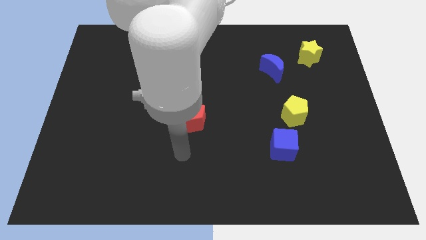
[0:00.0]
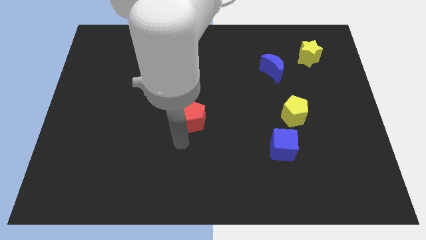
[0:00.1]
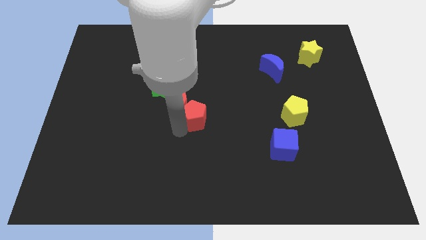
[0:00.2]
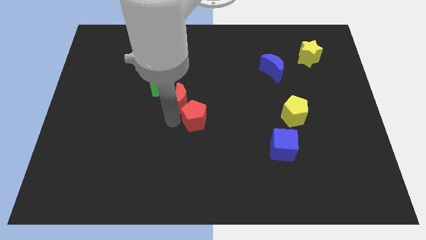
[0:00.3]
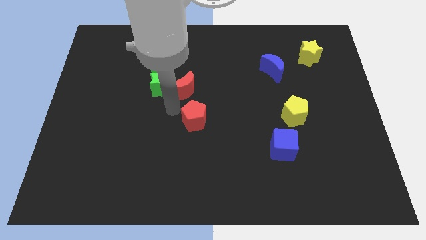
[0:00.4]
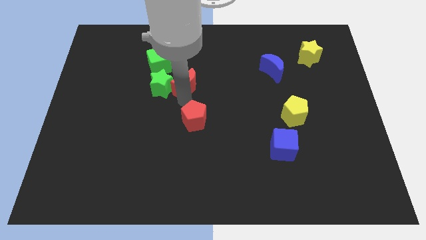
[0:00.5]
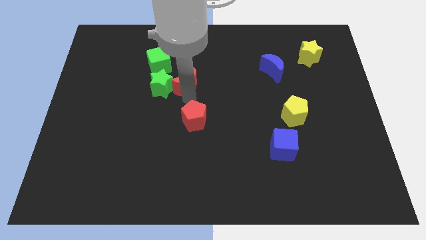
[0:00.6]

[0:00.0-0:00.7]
separate the red pentagon from the red moon

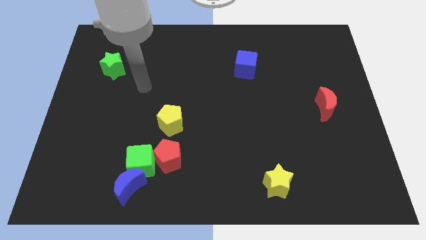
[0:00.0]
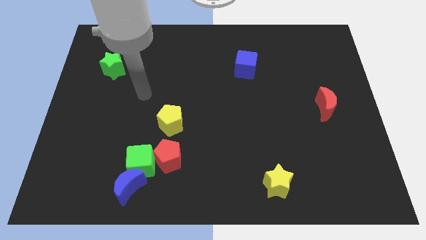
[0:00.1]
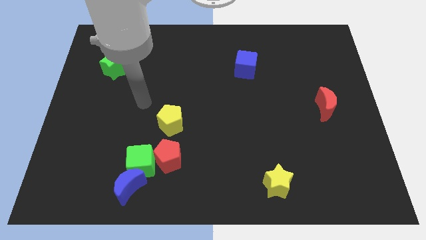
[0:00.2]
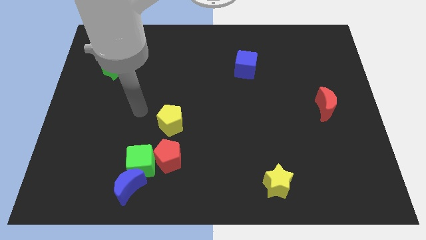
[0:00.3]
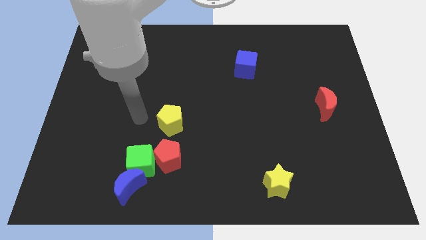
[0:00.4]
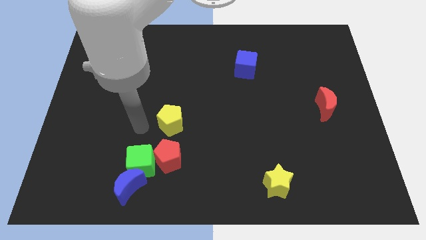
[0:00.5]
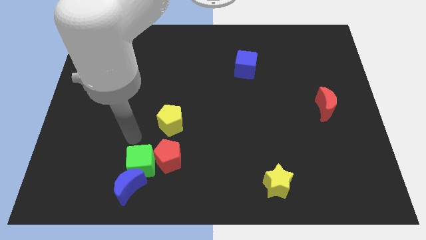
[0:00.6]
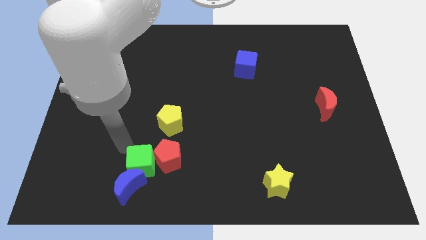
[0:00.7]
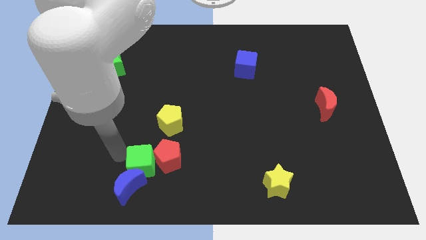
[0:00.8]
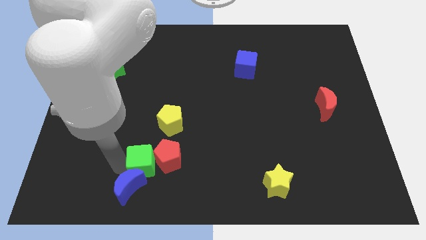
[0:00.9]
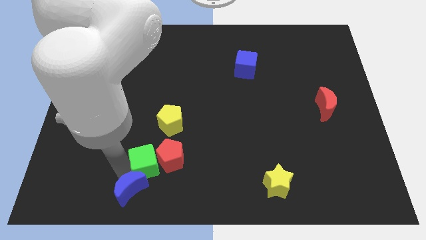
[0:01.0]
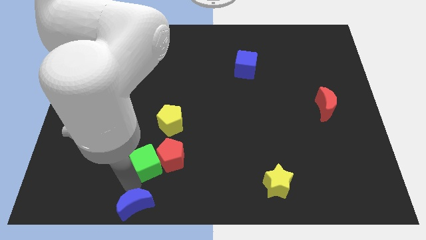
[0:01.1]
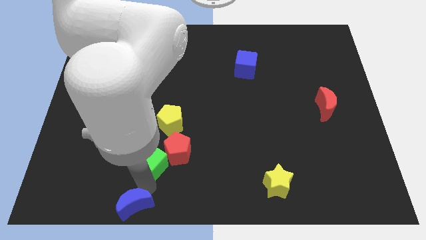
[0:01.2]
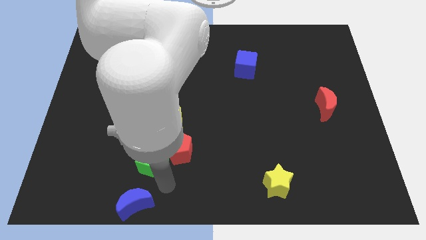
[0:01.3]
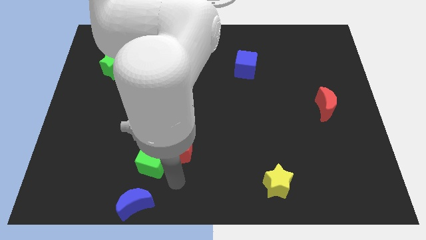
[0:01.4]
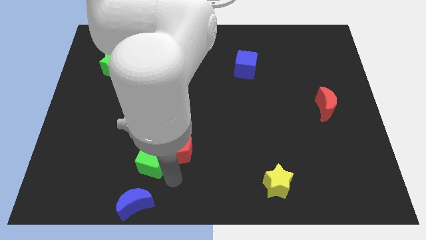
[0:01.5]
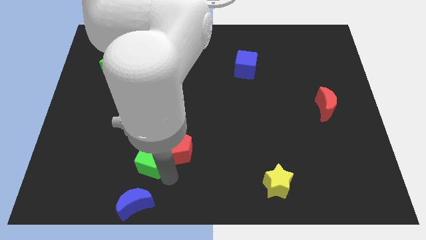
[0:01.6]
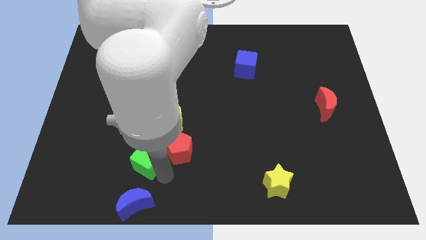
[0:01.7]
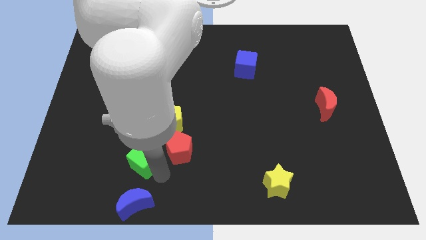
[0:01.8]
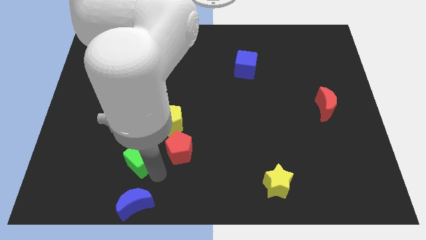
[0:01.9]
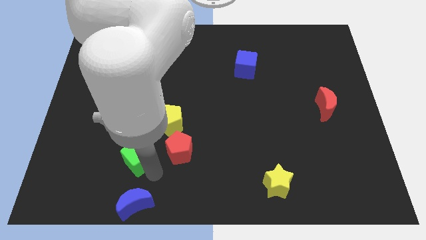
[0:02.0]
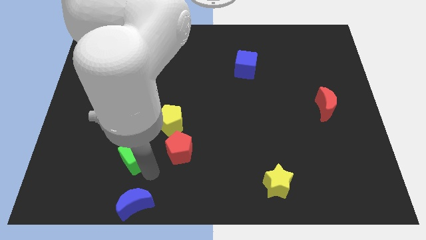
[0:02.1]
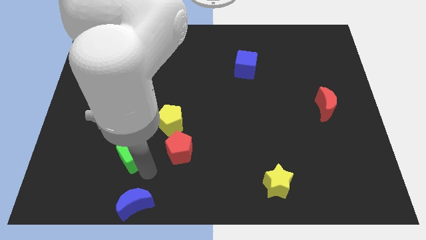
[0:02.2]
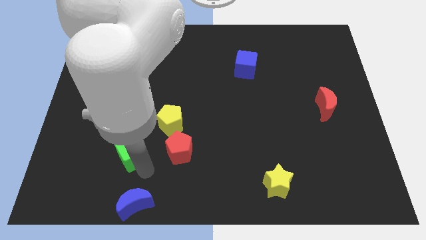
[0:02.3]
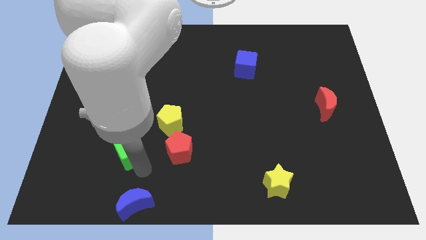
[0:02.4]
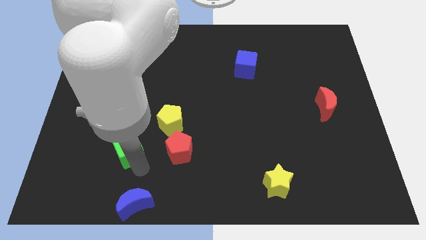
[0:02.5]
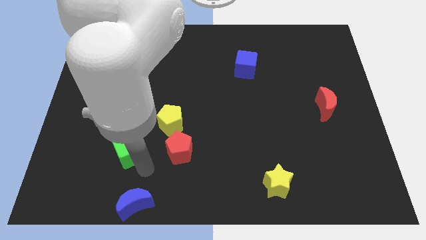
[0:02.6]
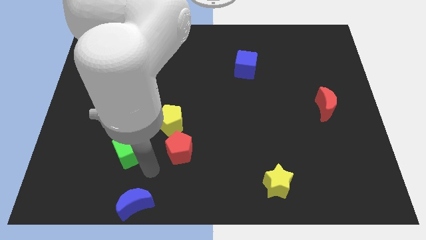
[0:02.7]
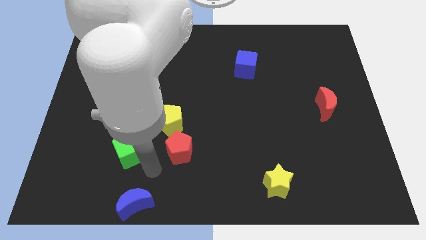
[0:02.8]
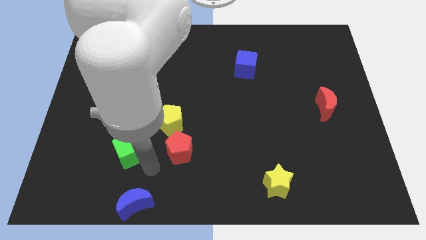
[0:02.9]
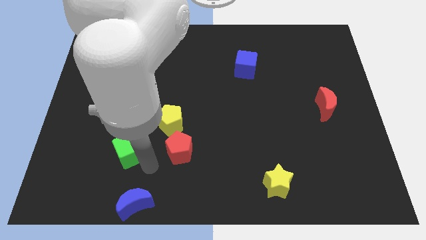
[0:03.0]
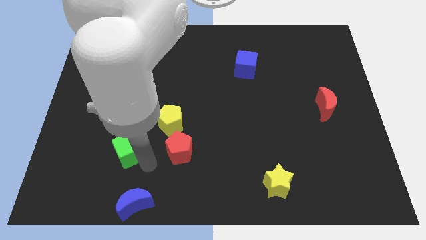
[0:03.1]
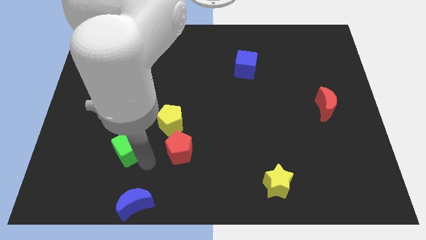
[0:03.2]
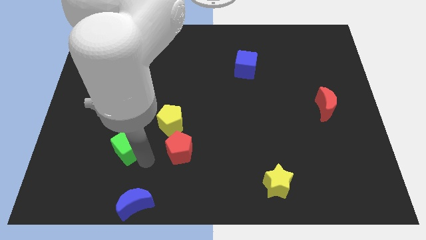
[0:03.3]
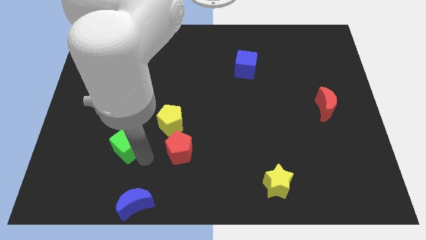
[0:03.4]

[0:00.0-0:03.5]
move the green cube away from the blue moon and red pentagon

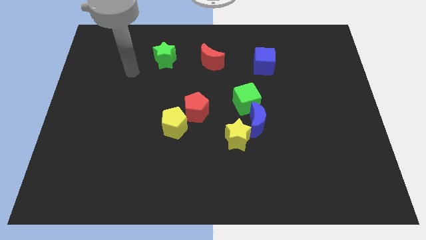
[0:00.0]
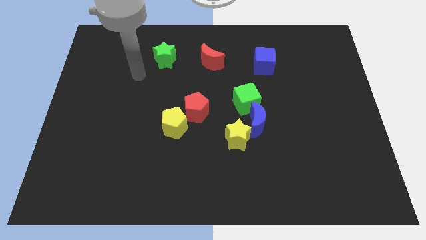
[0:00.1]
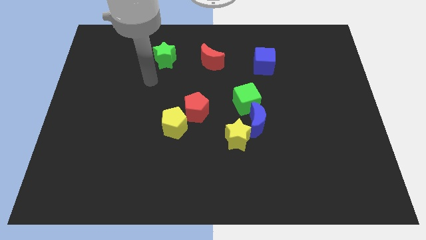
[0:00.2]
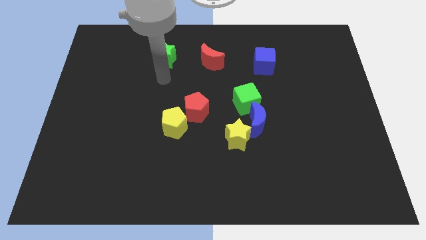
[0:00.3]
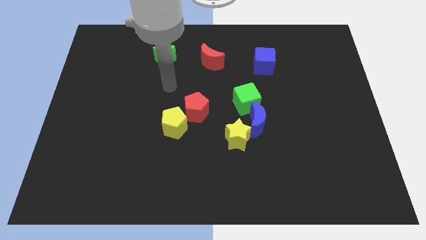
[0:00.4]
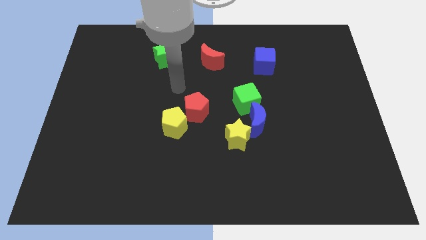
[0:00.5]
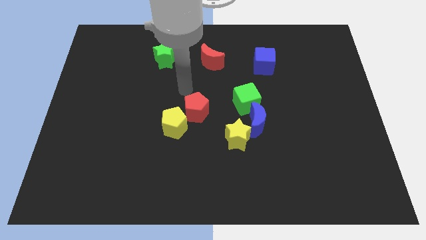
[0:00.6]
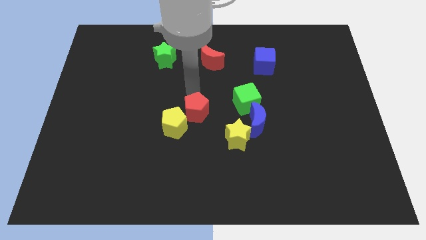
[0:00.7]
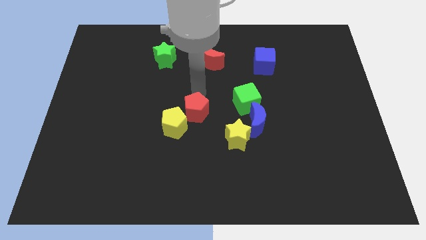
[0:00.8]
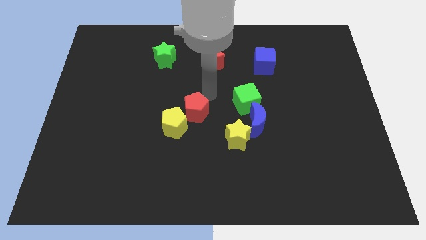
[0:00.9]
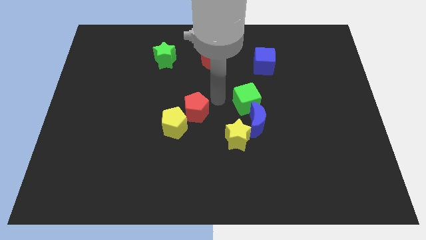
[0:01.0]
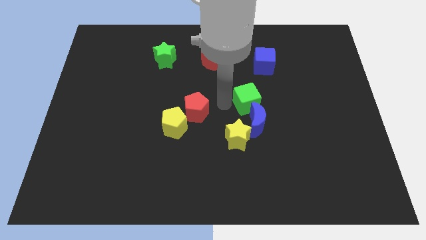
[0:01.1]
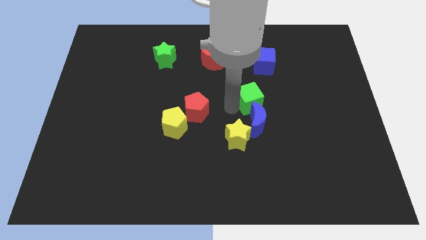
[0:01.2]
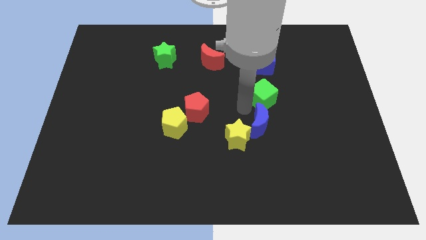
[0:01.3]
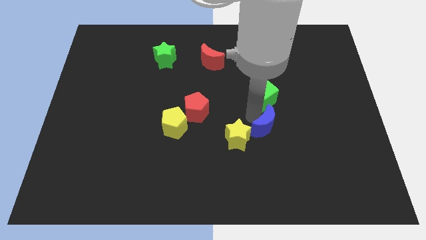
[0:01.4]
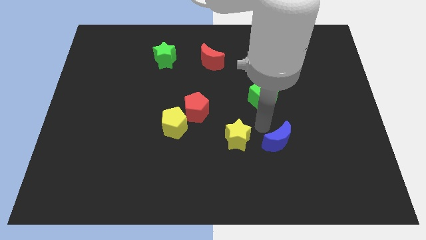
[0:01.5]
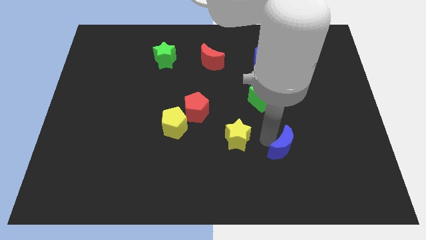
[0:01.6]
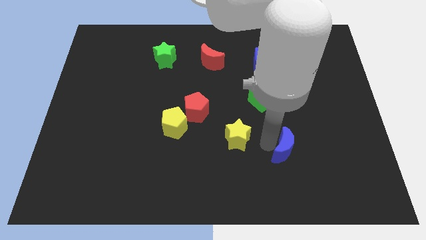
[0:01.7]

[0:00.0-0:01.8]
pull the yellow star apart from the blue moon

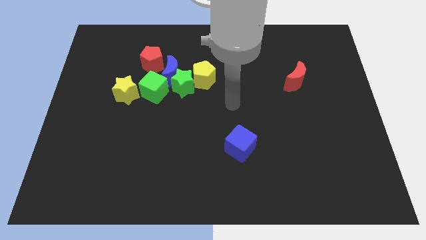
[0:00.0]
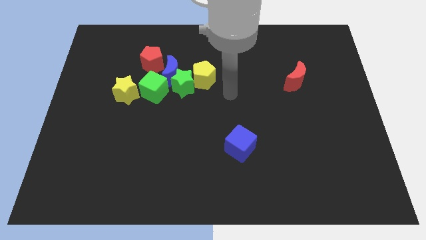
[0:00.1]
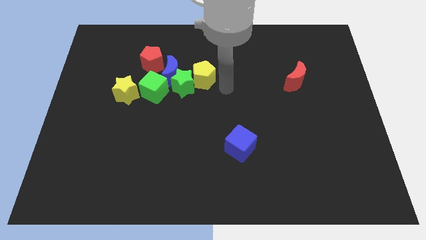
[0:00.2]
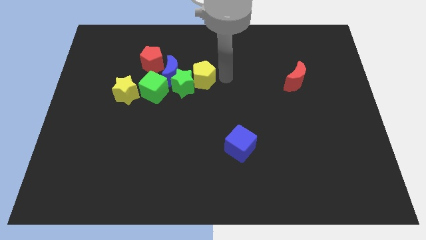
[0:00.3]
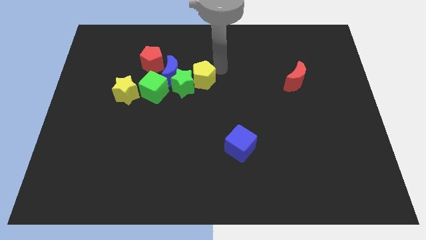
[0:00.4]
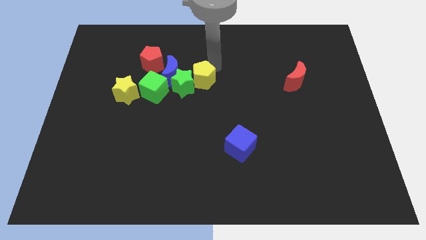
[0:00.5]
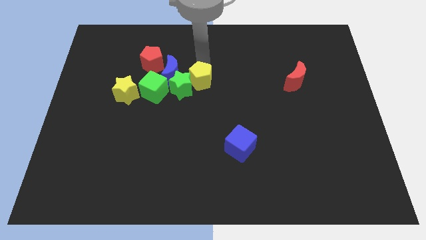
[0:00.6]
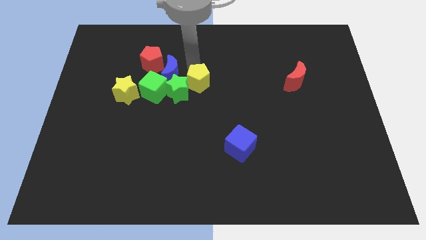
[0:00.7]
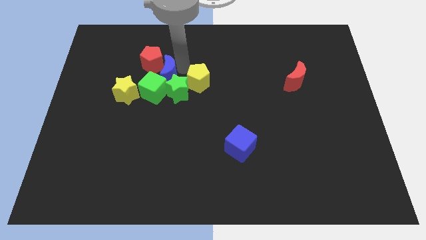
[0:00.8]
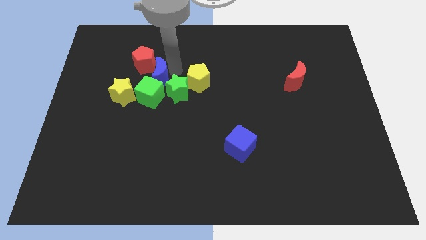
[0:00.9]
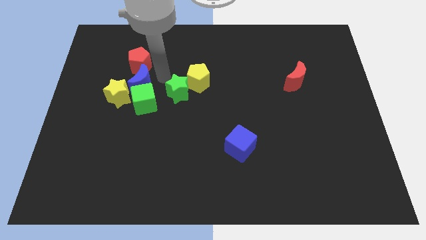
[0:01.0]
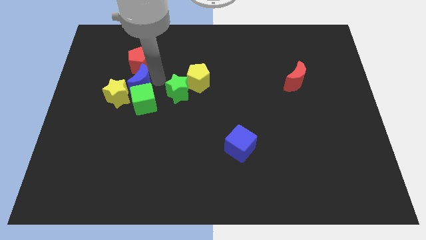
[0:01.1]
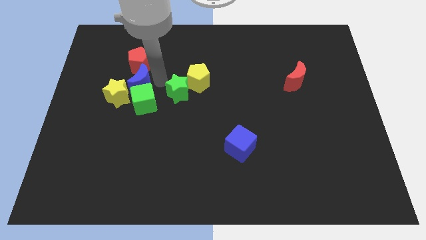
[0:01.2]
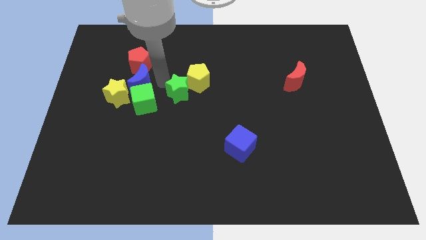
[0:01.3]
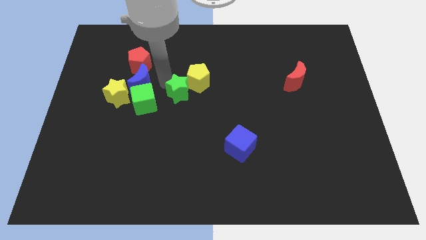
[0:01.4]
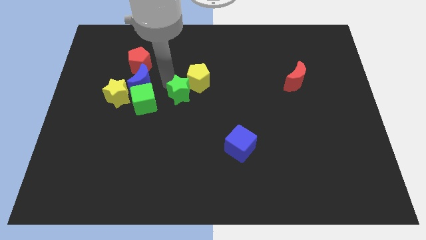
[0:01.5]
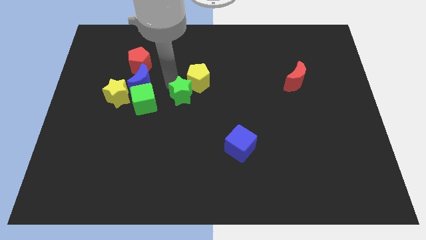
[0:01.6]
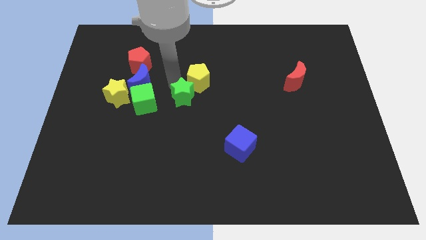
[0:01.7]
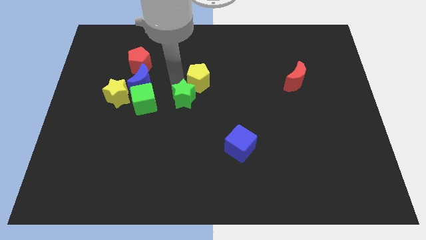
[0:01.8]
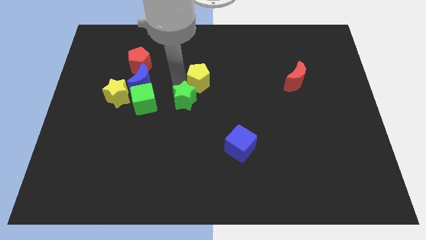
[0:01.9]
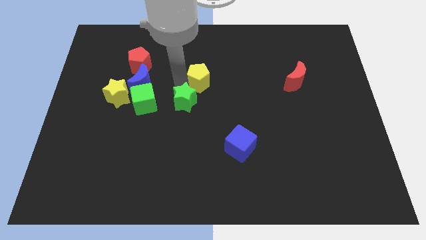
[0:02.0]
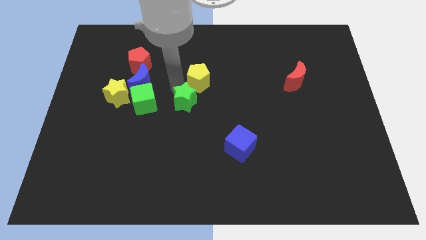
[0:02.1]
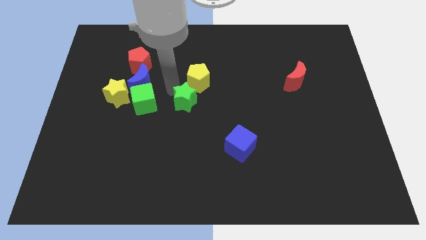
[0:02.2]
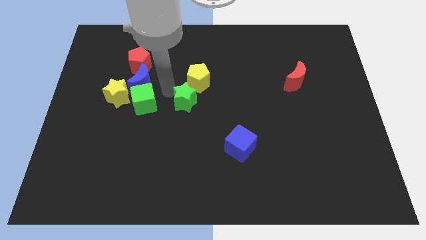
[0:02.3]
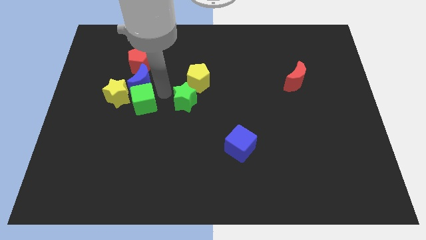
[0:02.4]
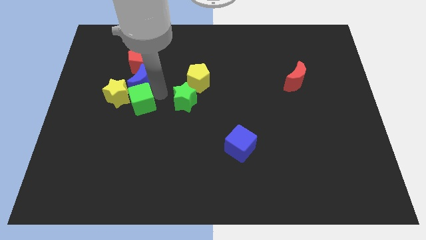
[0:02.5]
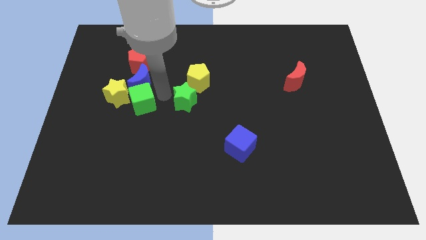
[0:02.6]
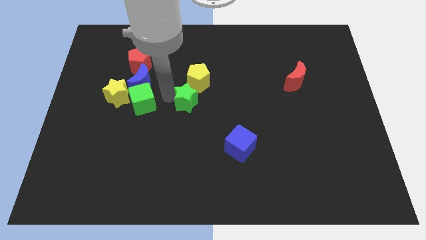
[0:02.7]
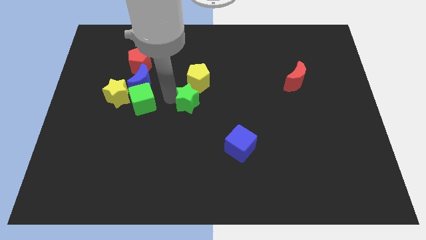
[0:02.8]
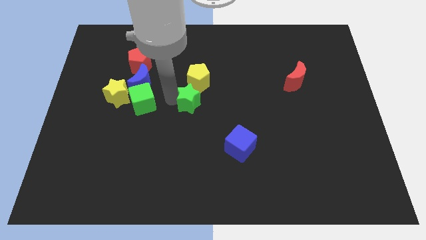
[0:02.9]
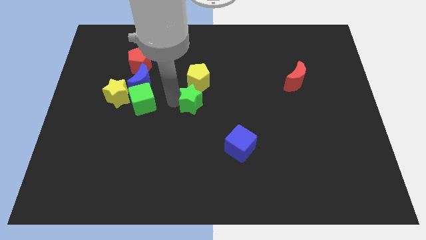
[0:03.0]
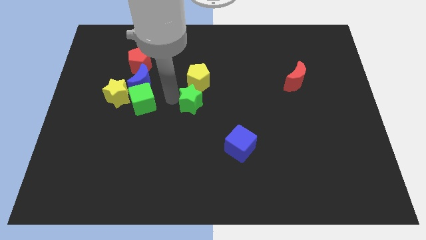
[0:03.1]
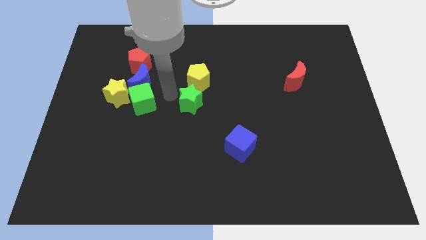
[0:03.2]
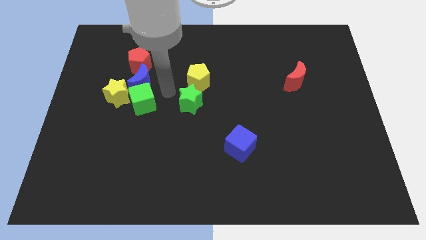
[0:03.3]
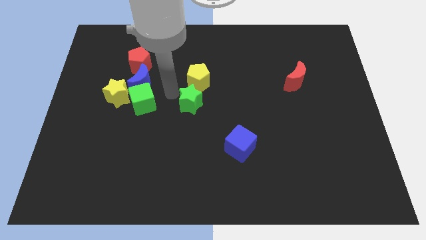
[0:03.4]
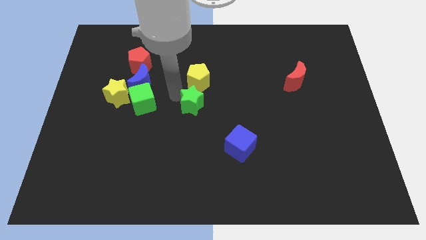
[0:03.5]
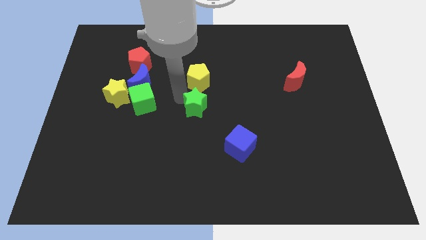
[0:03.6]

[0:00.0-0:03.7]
pull the green star apart from the blue moon, yellow pentagon, and green cube
